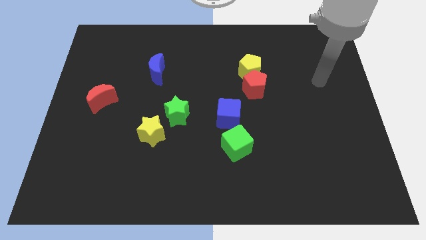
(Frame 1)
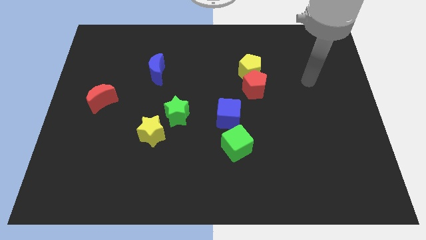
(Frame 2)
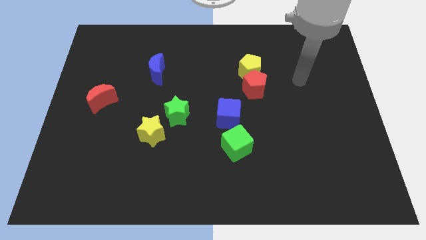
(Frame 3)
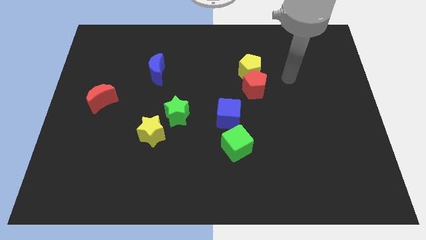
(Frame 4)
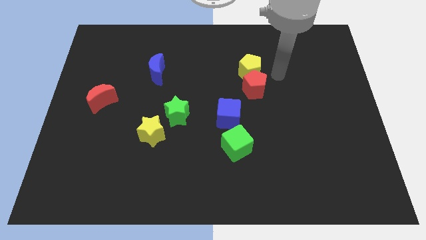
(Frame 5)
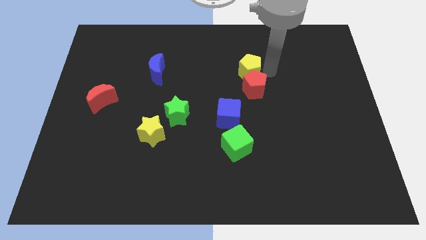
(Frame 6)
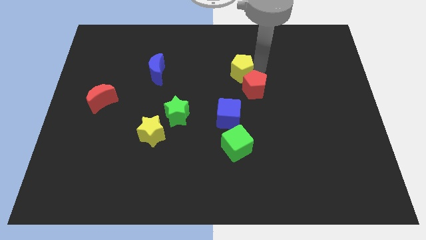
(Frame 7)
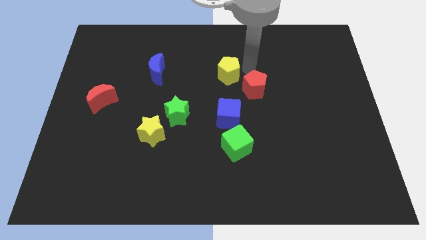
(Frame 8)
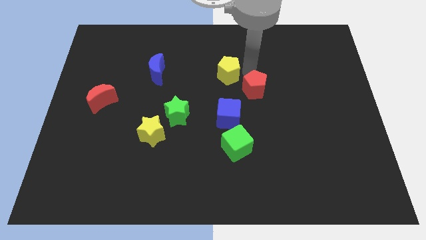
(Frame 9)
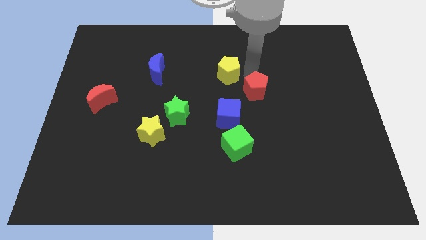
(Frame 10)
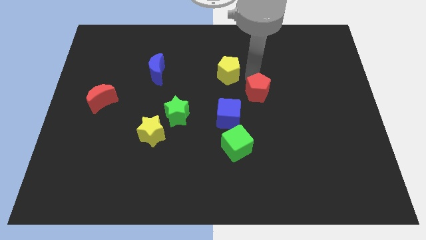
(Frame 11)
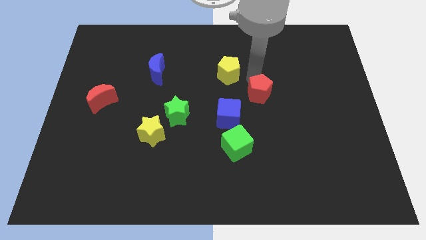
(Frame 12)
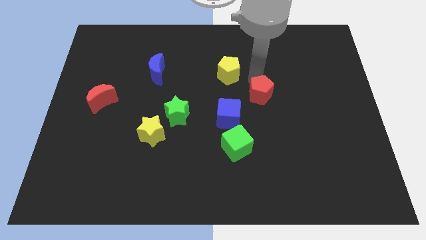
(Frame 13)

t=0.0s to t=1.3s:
move the red pentagon away from the yellow pentagon

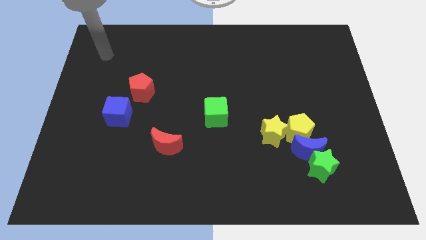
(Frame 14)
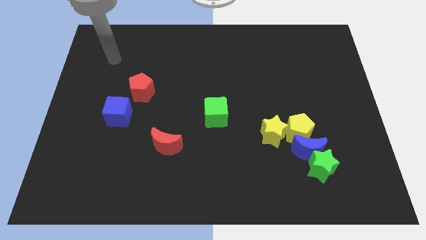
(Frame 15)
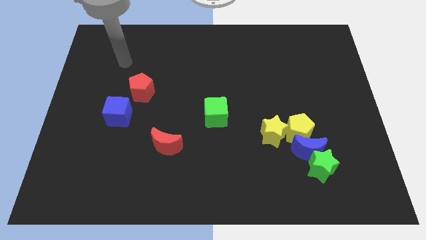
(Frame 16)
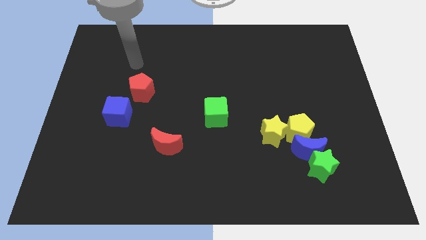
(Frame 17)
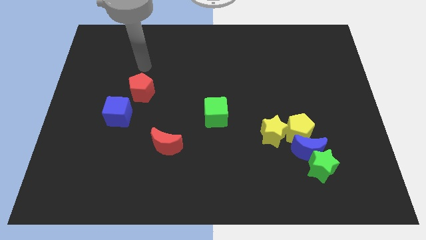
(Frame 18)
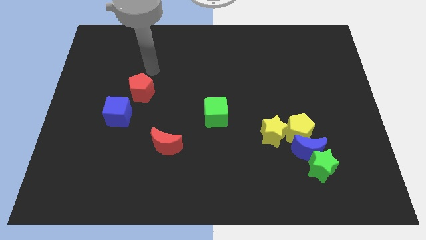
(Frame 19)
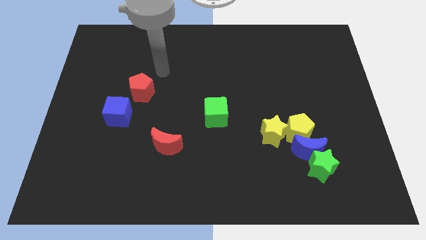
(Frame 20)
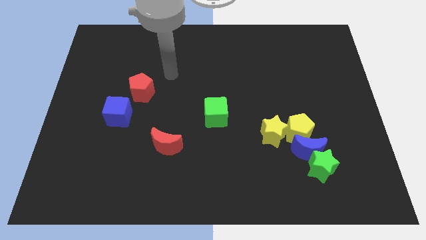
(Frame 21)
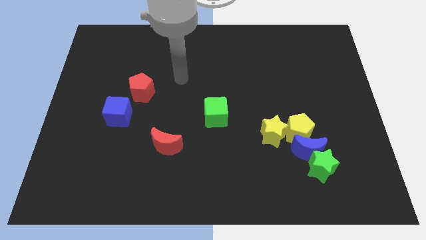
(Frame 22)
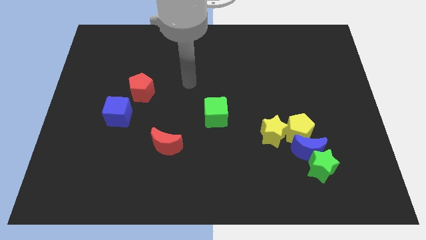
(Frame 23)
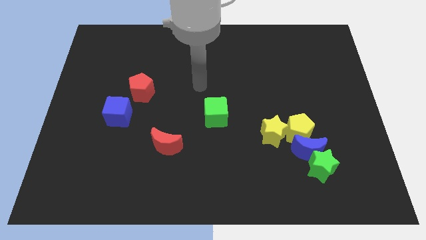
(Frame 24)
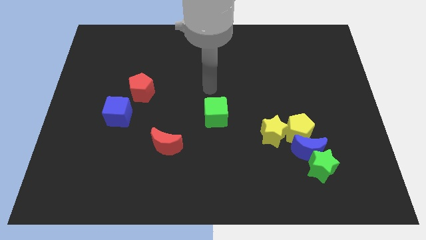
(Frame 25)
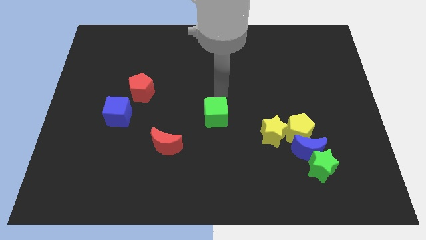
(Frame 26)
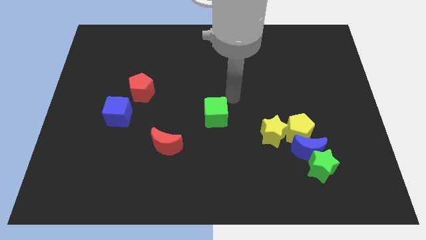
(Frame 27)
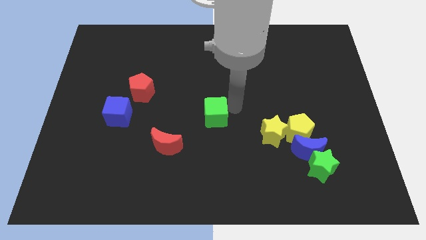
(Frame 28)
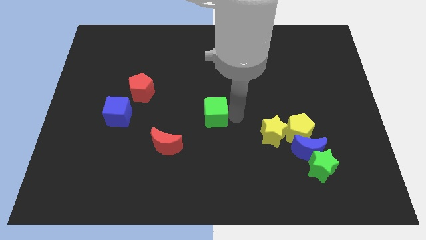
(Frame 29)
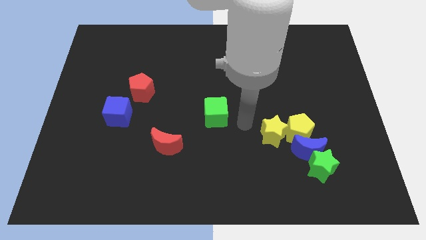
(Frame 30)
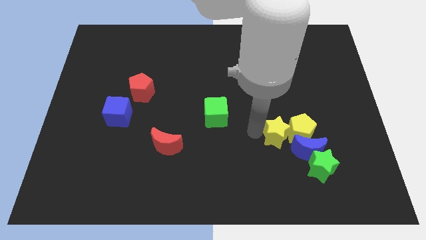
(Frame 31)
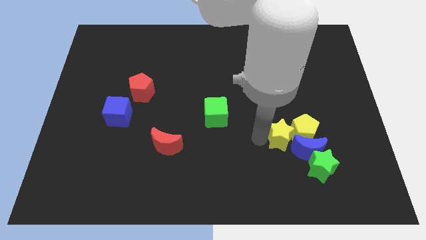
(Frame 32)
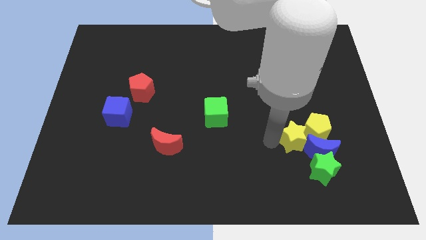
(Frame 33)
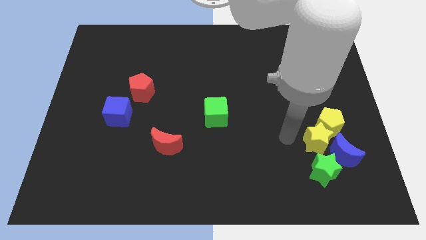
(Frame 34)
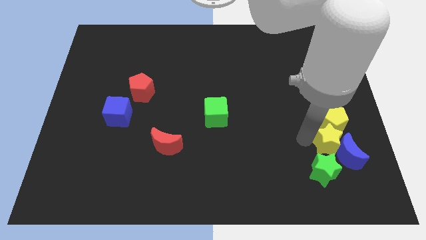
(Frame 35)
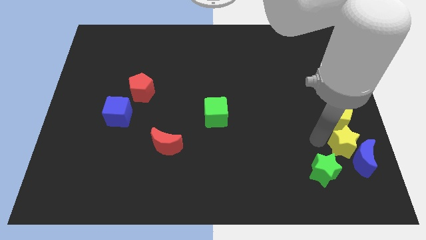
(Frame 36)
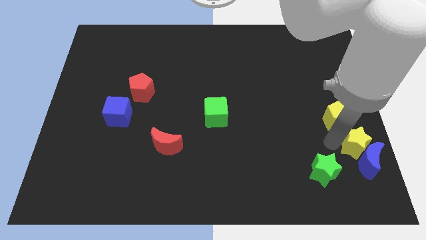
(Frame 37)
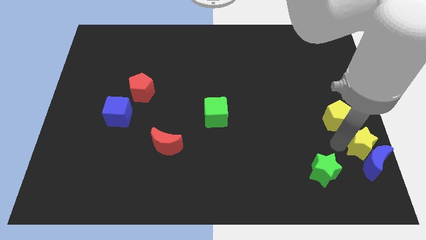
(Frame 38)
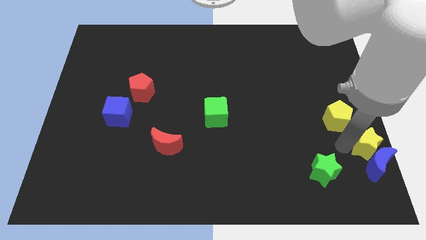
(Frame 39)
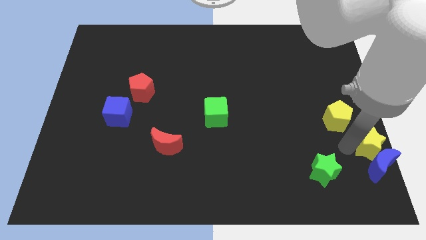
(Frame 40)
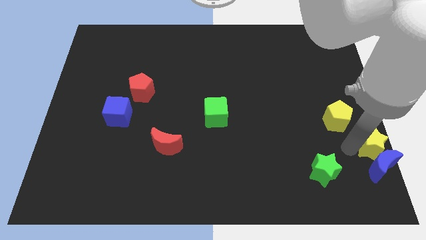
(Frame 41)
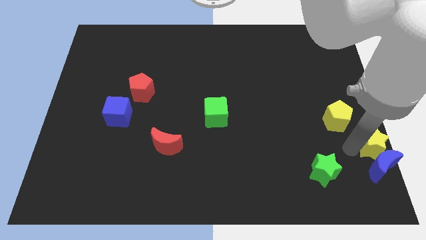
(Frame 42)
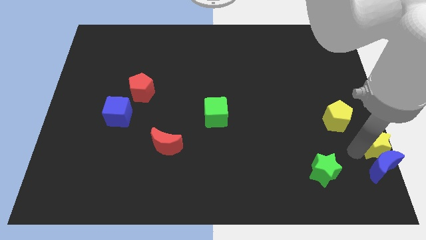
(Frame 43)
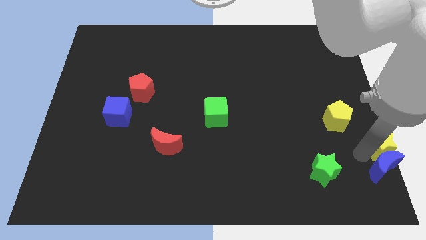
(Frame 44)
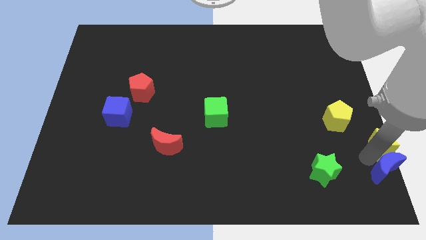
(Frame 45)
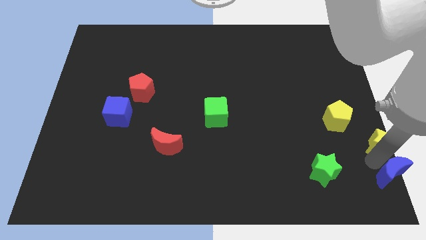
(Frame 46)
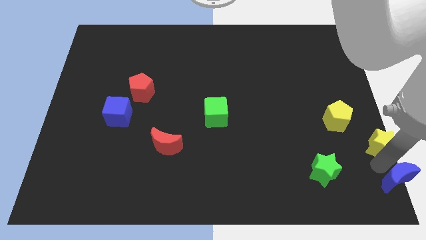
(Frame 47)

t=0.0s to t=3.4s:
separate the blue moon from the green star, yellow pentagon, and yellow star

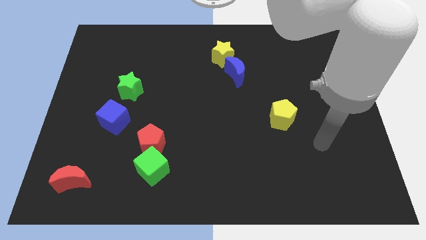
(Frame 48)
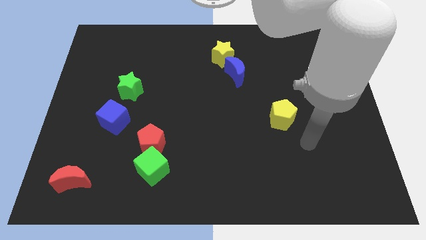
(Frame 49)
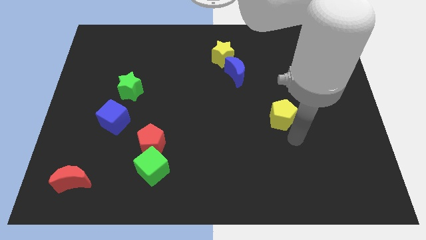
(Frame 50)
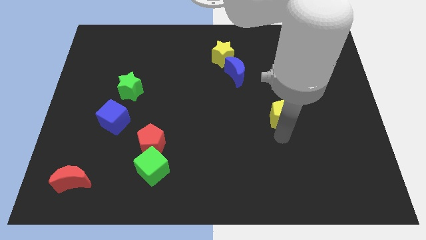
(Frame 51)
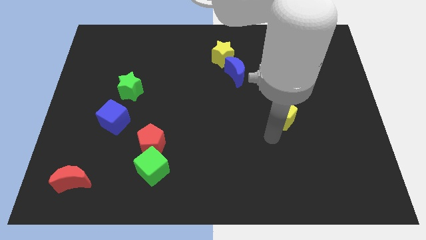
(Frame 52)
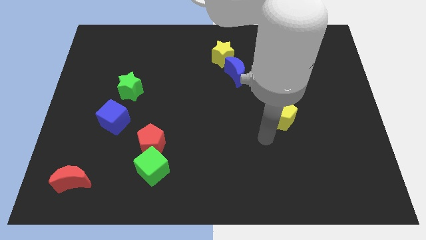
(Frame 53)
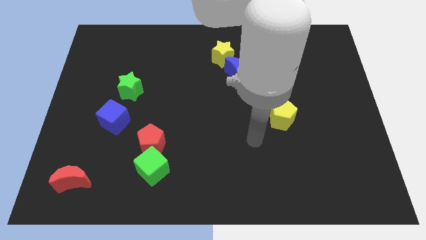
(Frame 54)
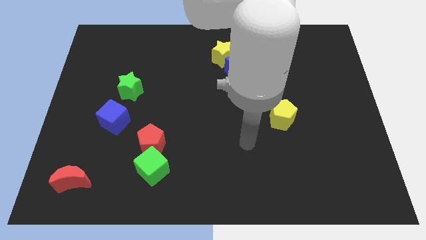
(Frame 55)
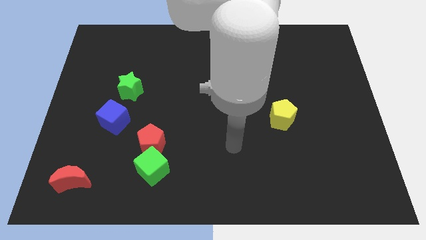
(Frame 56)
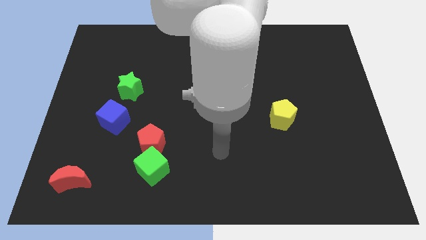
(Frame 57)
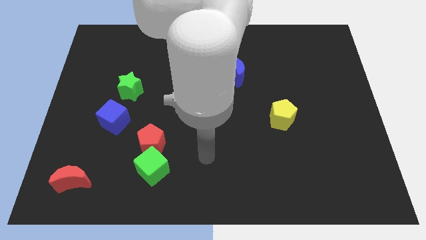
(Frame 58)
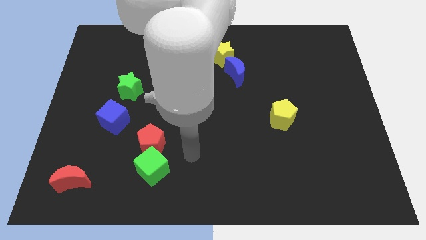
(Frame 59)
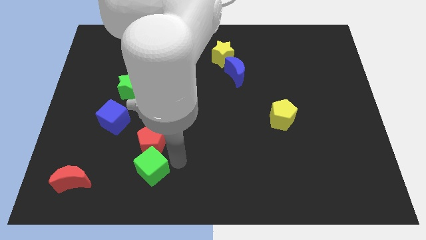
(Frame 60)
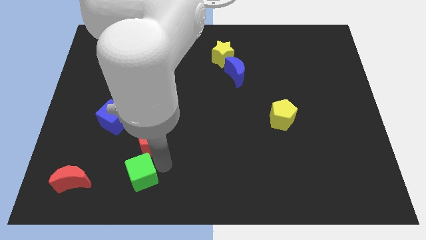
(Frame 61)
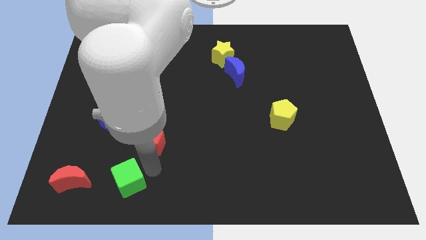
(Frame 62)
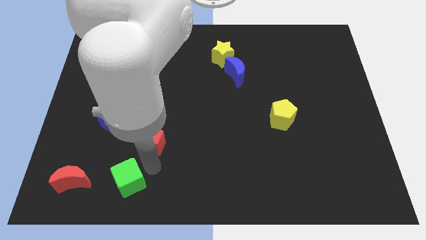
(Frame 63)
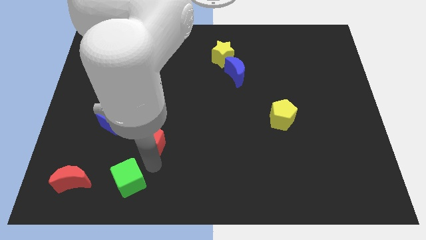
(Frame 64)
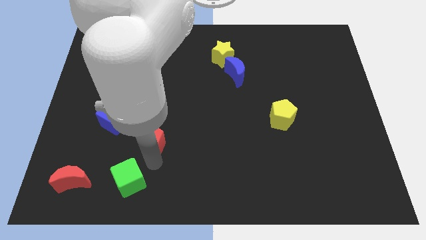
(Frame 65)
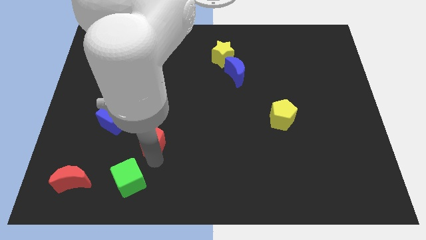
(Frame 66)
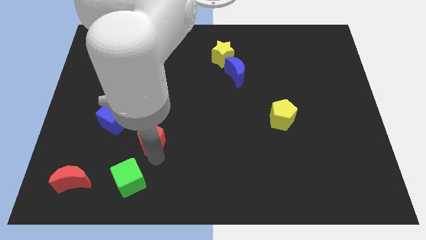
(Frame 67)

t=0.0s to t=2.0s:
pull the red pentagon apart from the green cube

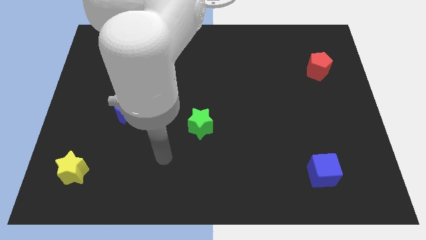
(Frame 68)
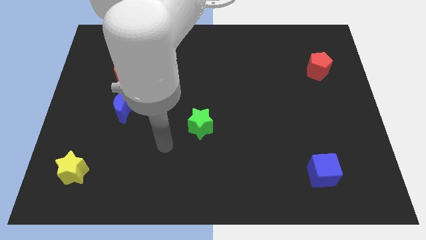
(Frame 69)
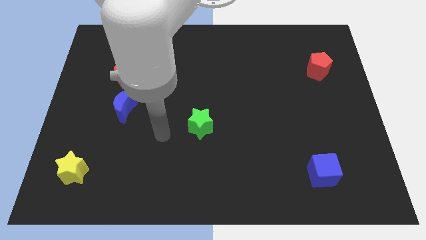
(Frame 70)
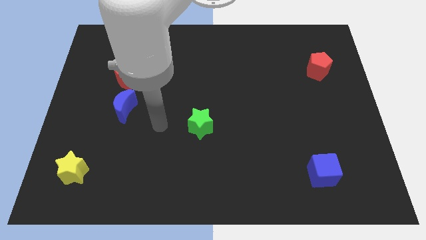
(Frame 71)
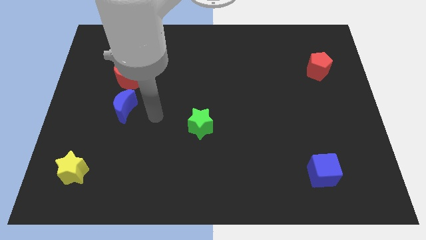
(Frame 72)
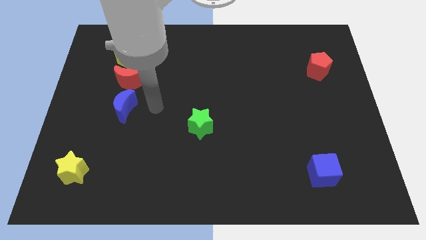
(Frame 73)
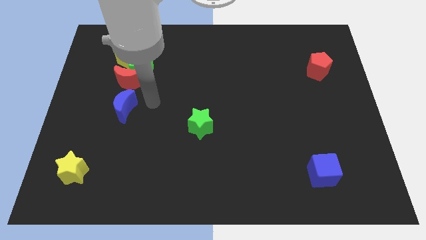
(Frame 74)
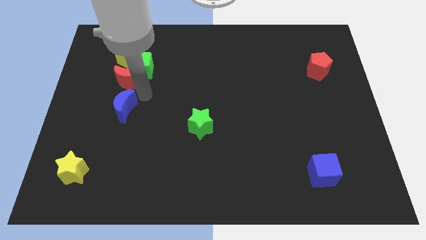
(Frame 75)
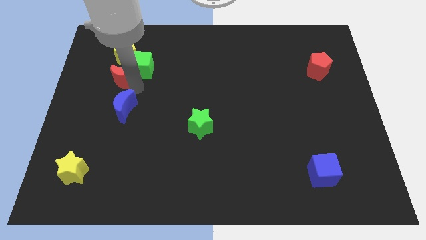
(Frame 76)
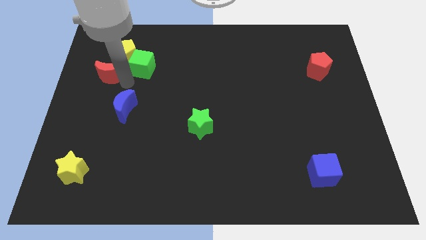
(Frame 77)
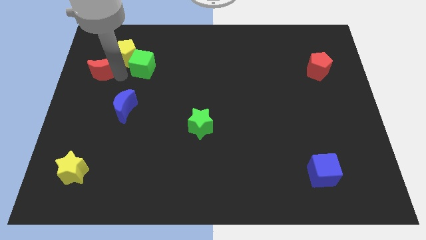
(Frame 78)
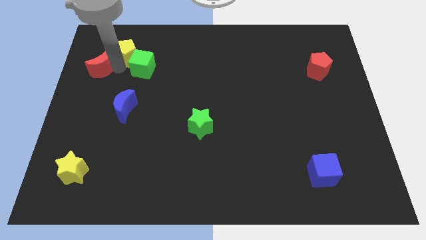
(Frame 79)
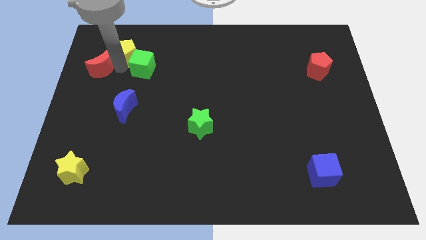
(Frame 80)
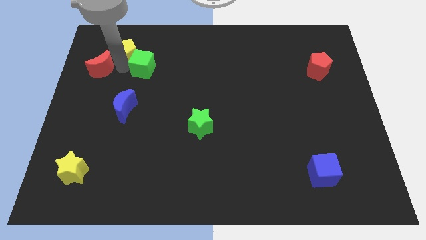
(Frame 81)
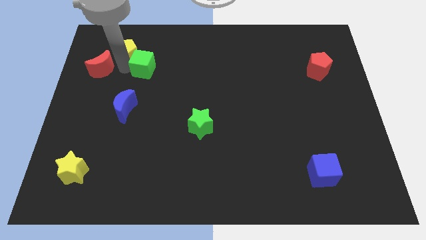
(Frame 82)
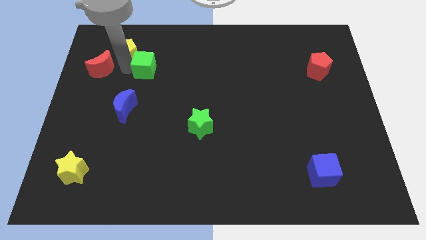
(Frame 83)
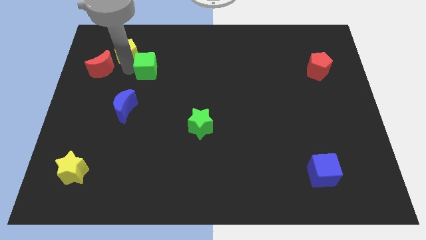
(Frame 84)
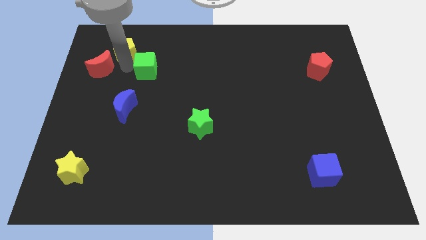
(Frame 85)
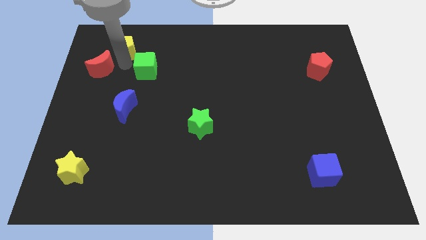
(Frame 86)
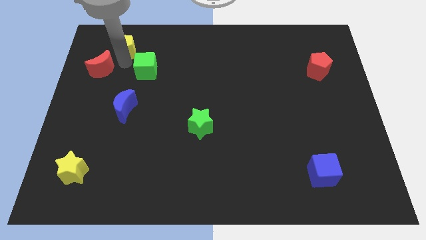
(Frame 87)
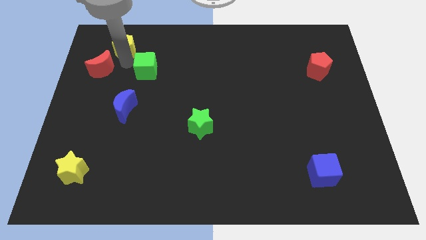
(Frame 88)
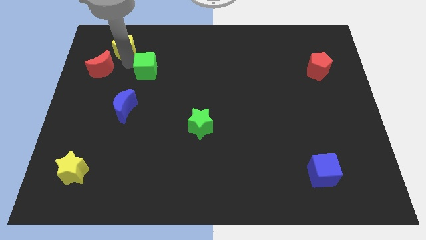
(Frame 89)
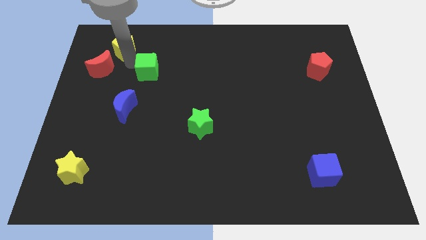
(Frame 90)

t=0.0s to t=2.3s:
pull the green cube apart from the red moon and yellow pentagon

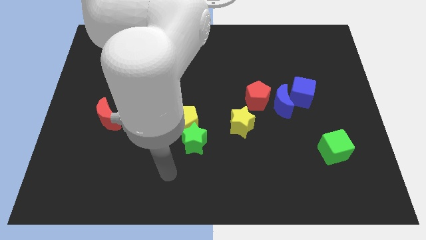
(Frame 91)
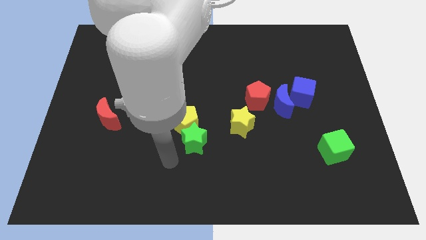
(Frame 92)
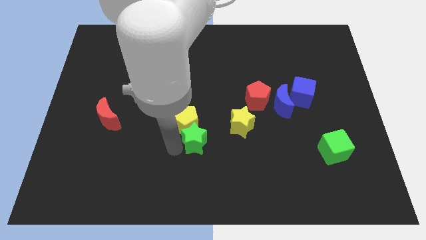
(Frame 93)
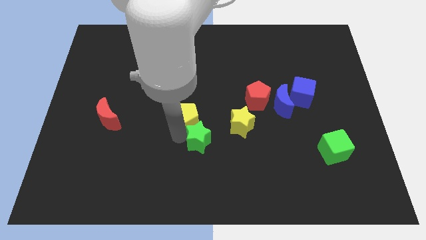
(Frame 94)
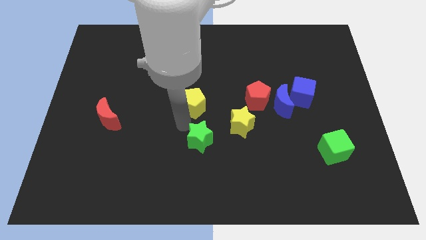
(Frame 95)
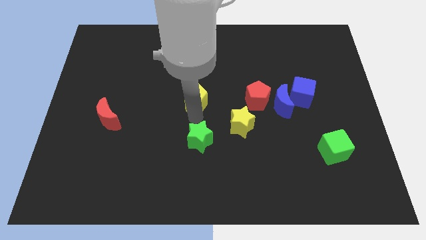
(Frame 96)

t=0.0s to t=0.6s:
separate the green star from the yellow pentagon
